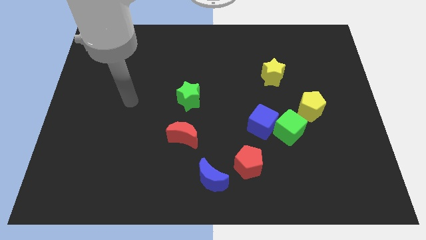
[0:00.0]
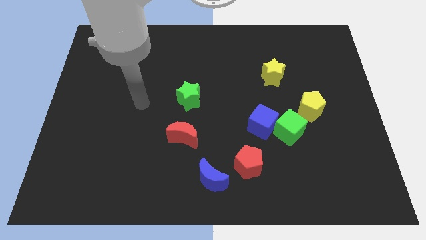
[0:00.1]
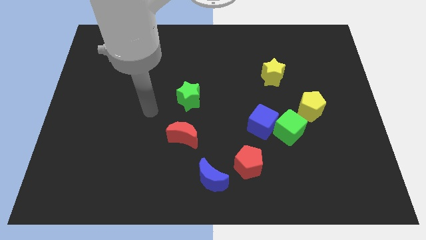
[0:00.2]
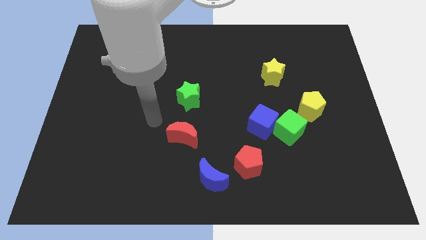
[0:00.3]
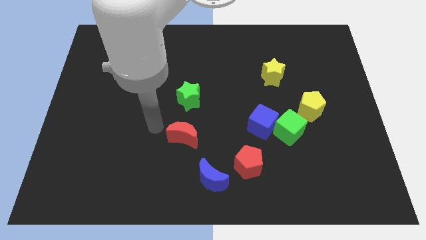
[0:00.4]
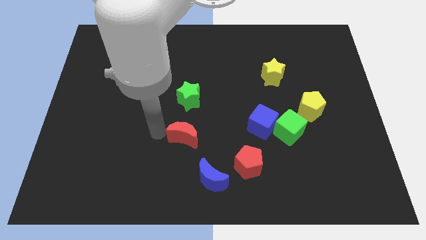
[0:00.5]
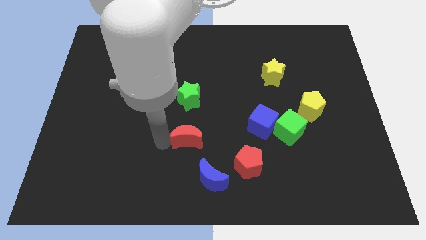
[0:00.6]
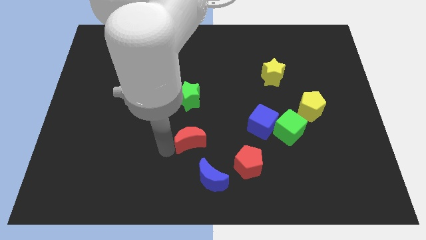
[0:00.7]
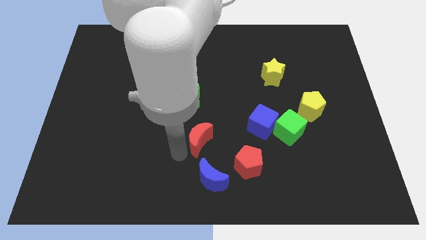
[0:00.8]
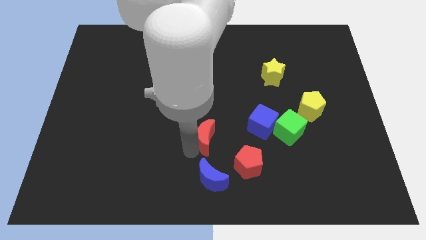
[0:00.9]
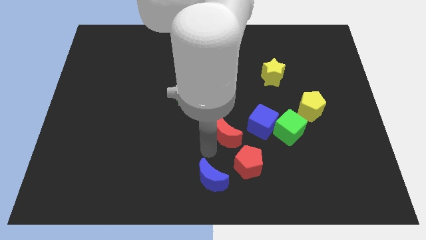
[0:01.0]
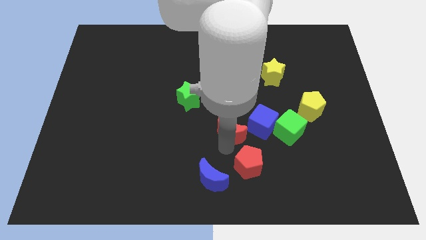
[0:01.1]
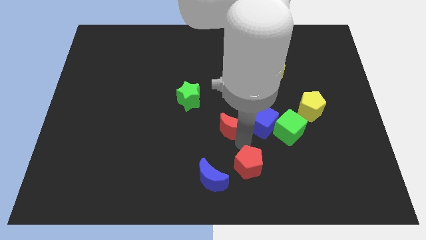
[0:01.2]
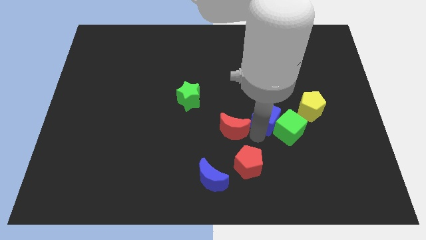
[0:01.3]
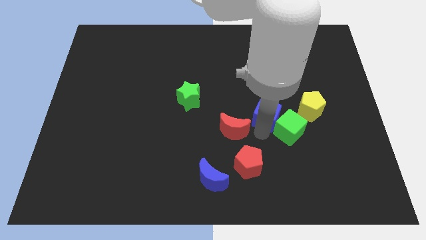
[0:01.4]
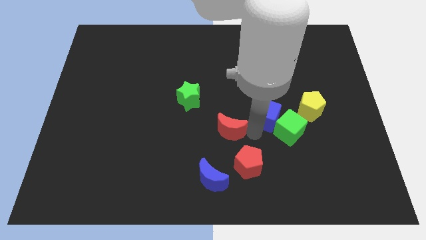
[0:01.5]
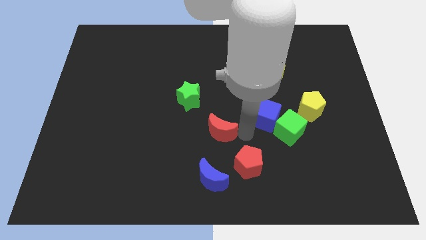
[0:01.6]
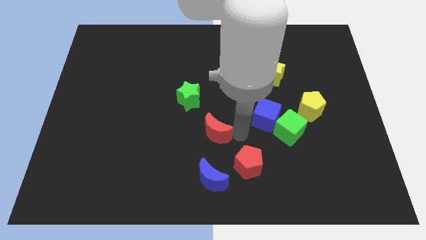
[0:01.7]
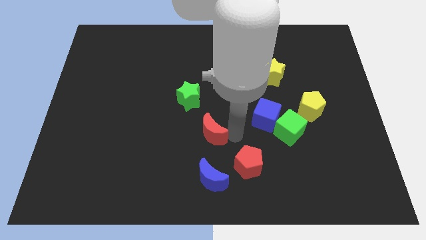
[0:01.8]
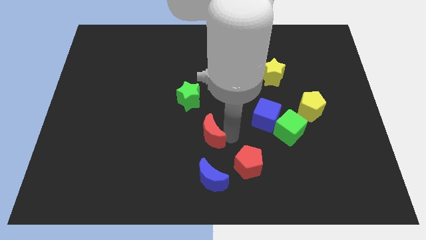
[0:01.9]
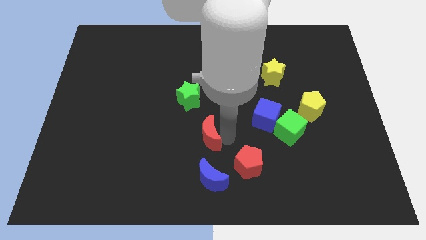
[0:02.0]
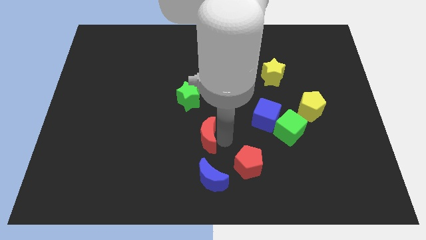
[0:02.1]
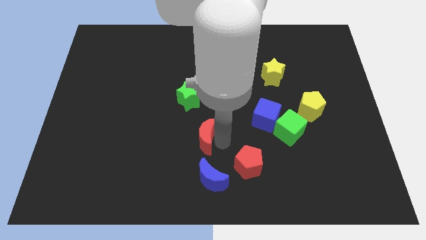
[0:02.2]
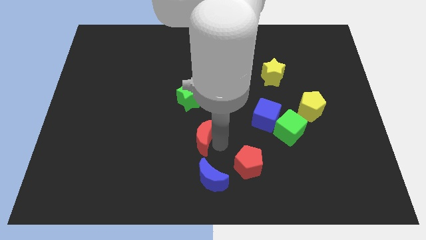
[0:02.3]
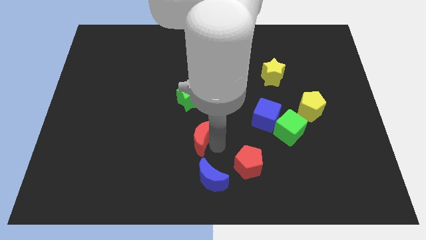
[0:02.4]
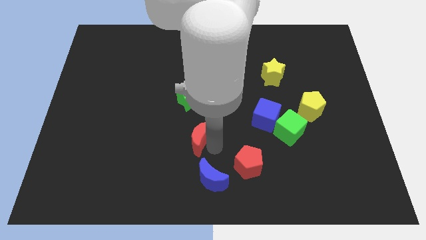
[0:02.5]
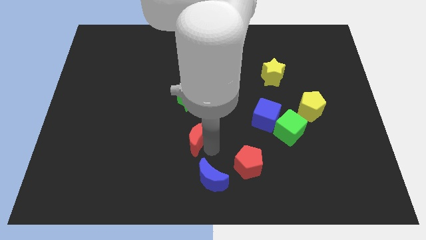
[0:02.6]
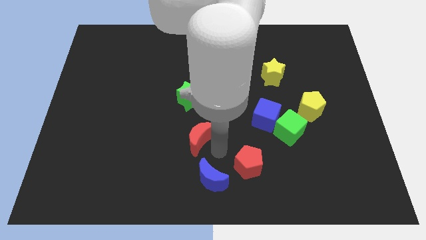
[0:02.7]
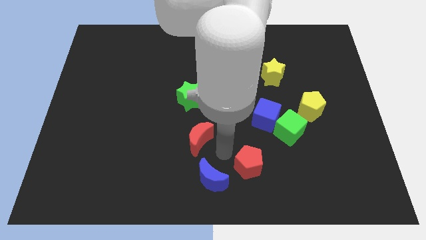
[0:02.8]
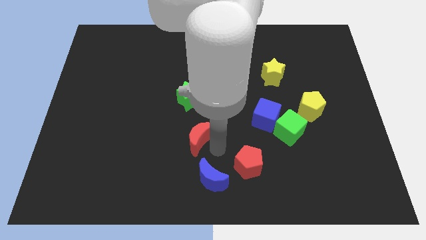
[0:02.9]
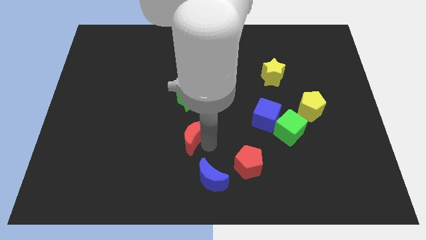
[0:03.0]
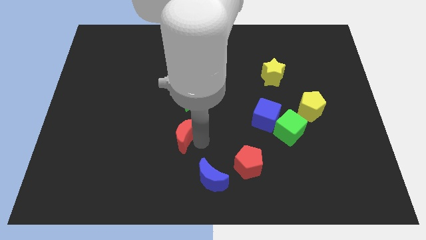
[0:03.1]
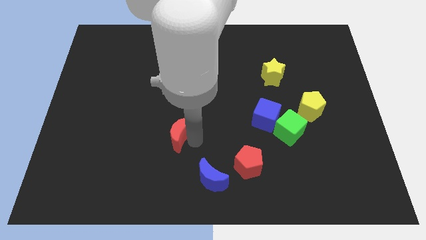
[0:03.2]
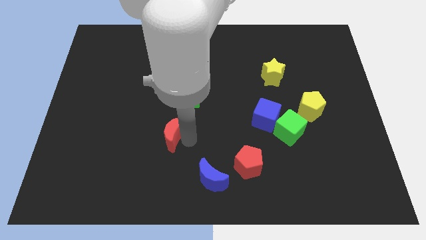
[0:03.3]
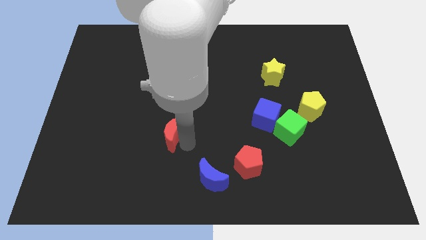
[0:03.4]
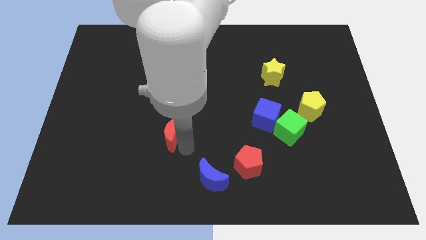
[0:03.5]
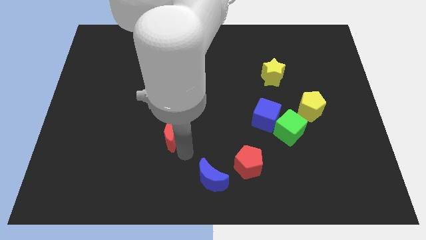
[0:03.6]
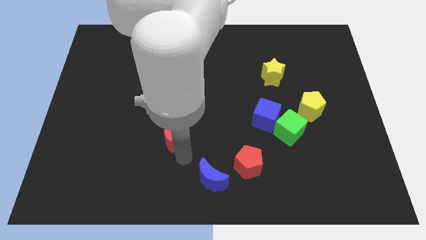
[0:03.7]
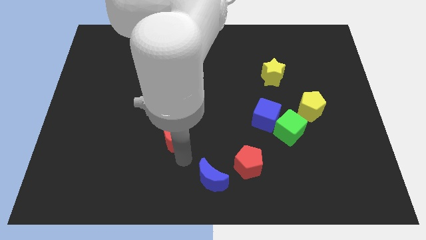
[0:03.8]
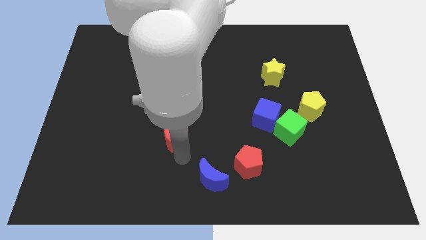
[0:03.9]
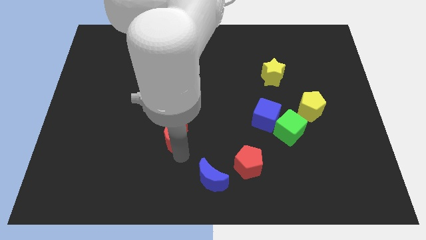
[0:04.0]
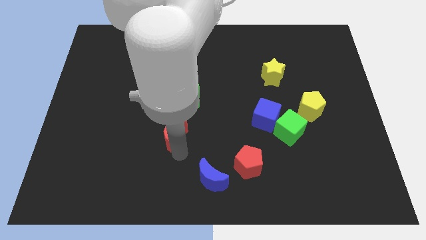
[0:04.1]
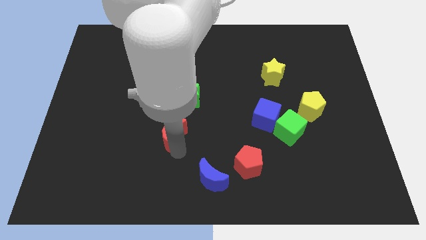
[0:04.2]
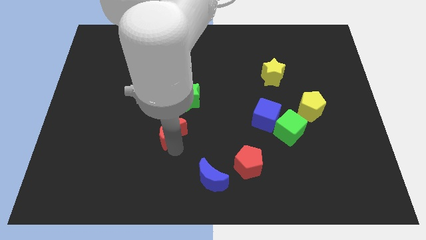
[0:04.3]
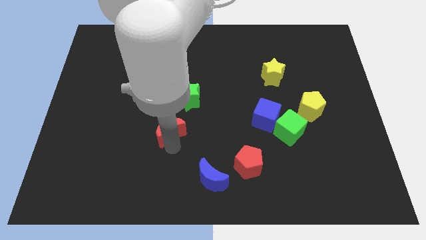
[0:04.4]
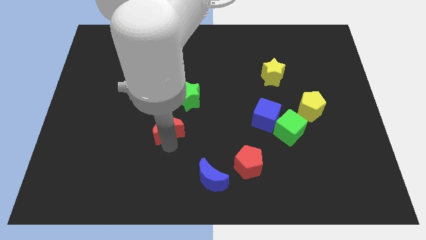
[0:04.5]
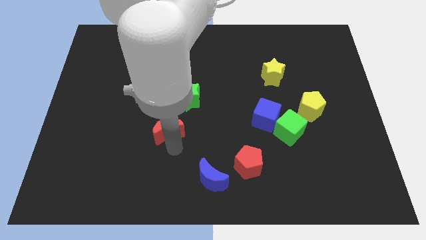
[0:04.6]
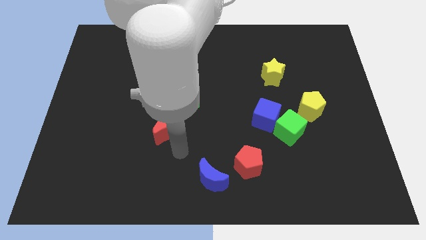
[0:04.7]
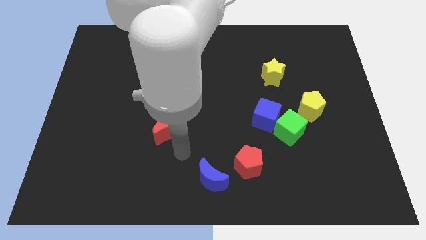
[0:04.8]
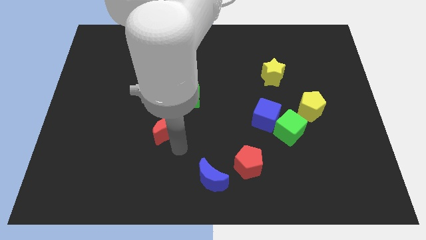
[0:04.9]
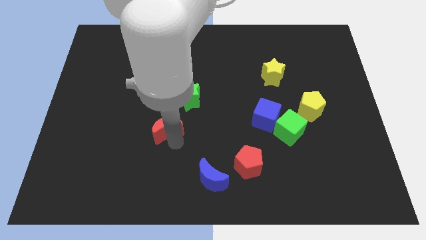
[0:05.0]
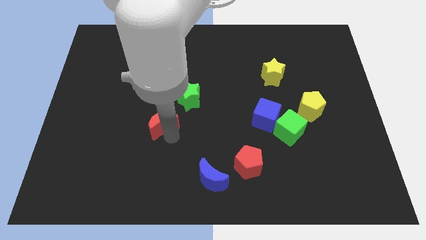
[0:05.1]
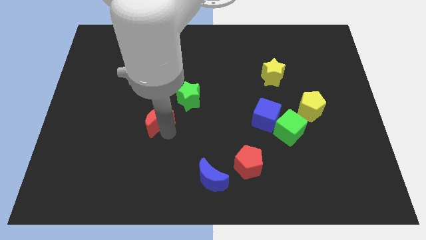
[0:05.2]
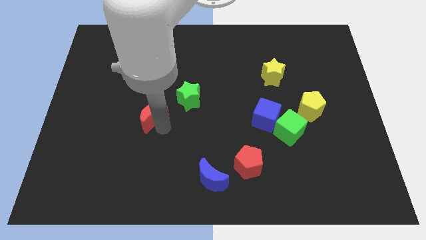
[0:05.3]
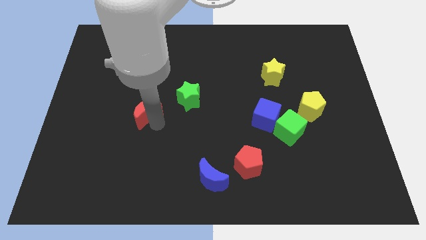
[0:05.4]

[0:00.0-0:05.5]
slide the red moon left of the green star

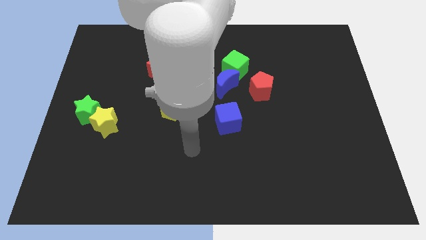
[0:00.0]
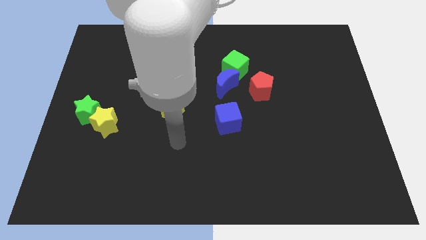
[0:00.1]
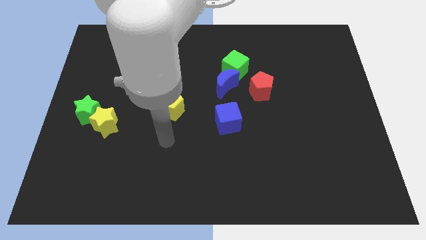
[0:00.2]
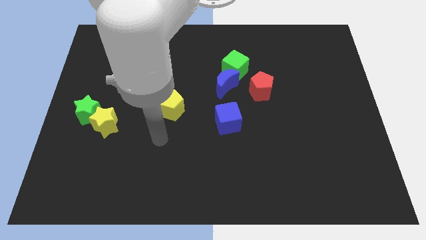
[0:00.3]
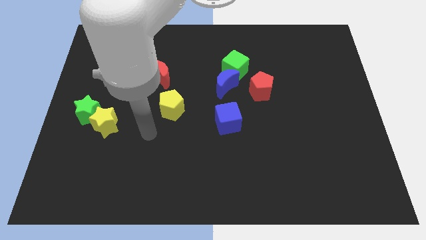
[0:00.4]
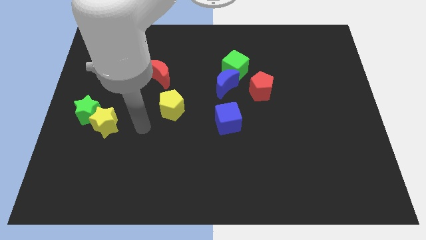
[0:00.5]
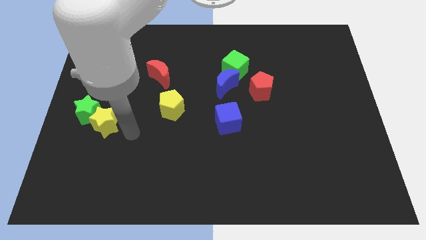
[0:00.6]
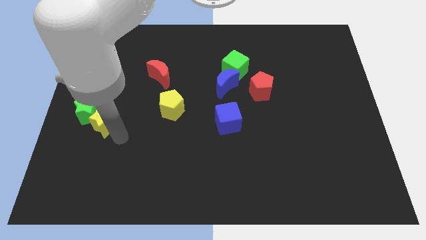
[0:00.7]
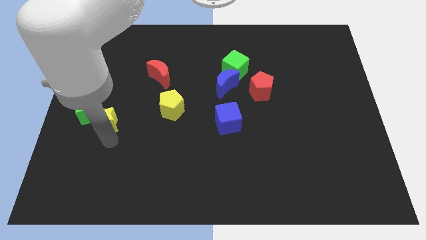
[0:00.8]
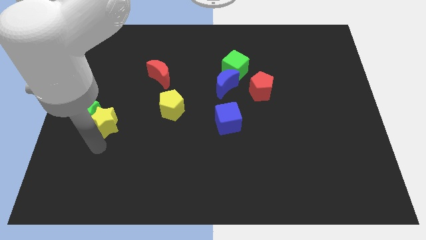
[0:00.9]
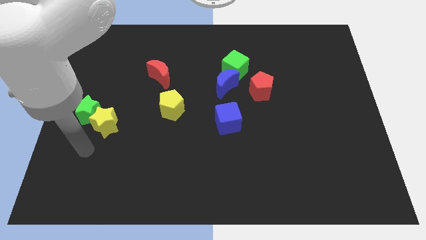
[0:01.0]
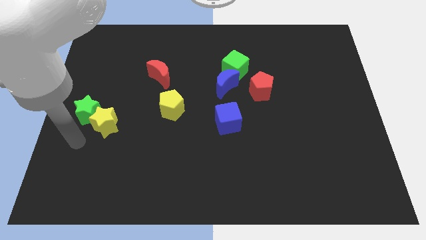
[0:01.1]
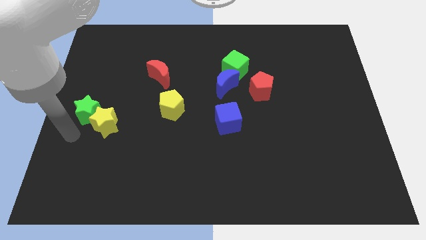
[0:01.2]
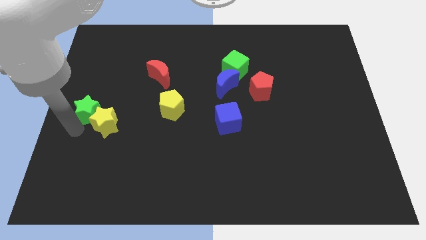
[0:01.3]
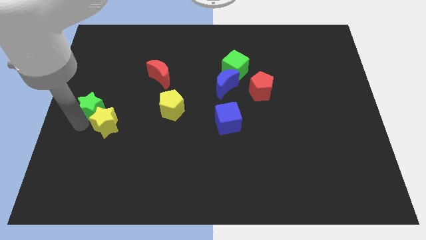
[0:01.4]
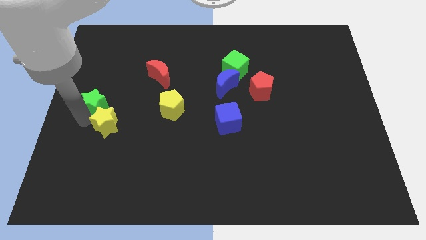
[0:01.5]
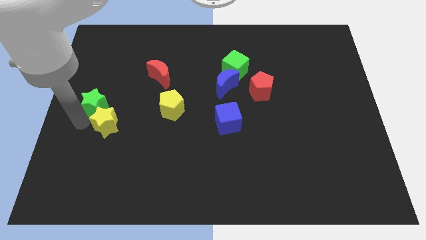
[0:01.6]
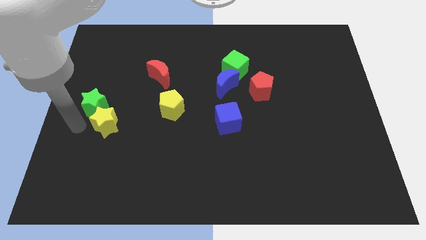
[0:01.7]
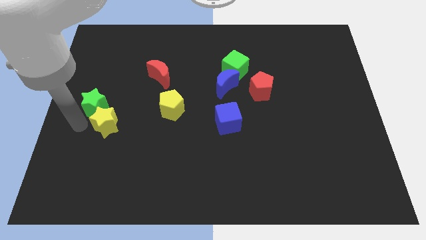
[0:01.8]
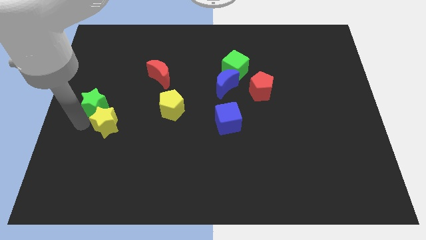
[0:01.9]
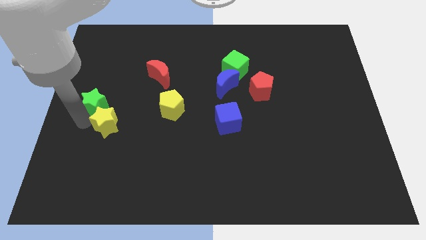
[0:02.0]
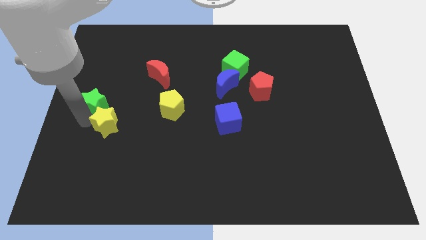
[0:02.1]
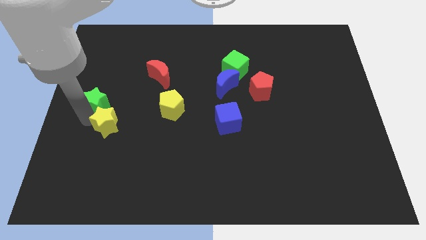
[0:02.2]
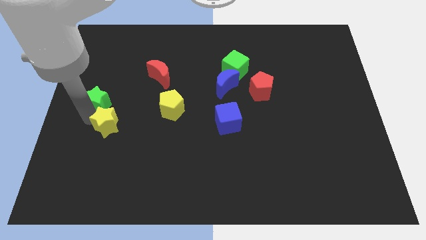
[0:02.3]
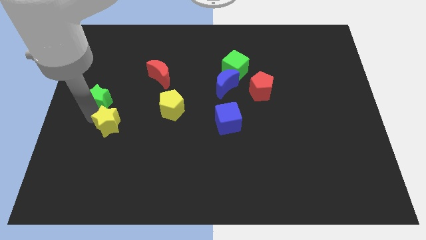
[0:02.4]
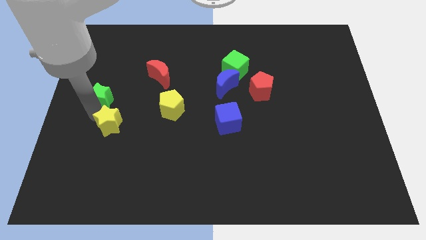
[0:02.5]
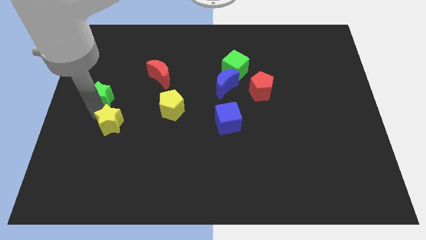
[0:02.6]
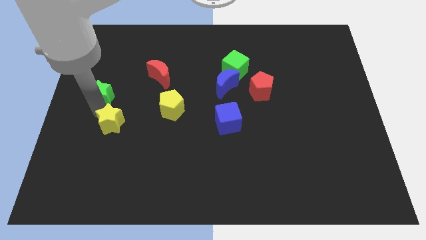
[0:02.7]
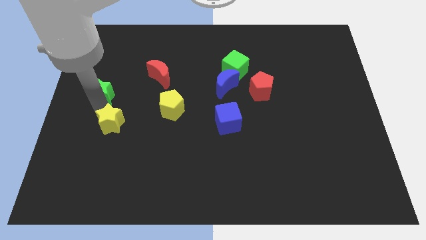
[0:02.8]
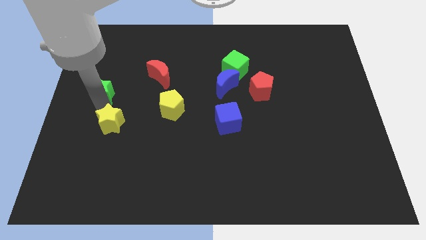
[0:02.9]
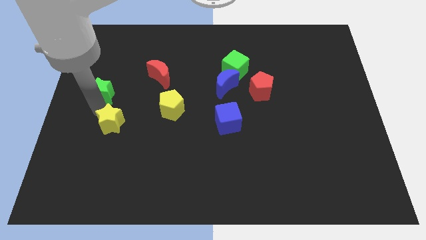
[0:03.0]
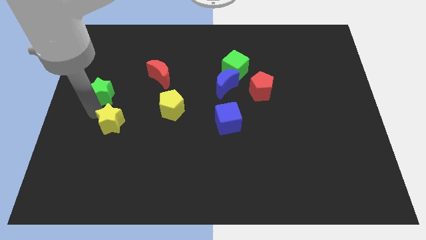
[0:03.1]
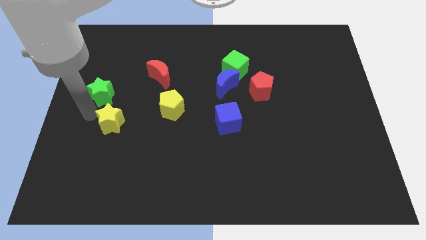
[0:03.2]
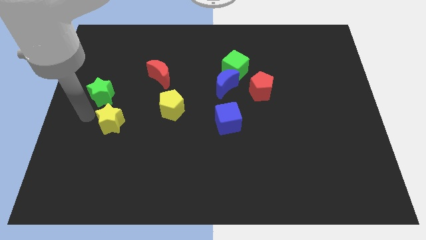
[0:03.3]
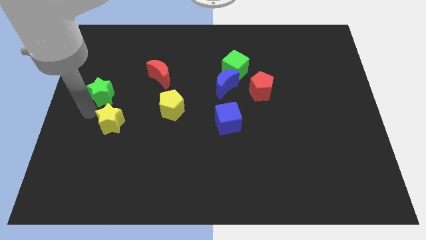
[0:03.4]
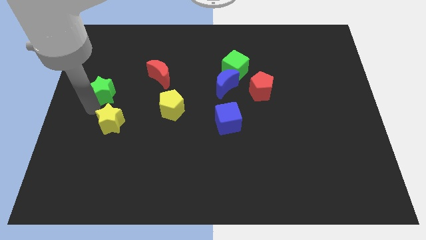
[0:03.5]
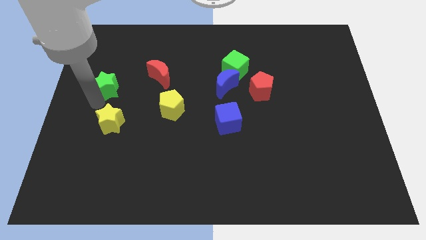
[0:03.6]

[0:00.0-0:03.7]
move the green star to the left of the red moon
